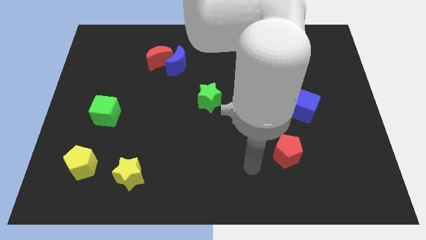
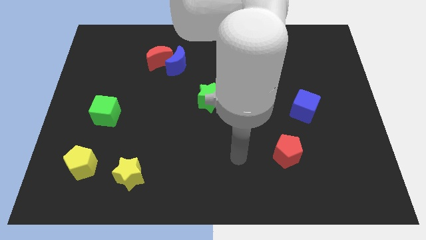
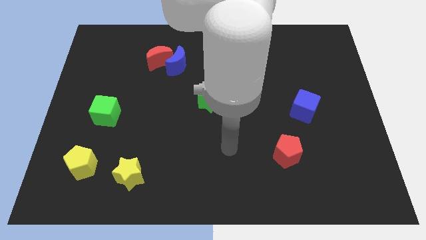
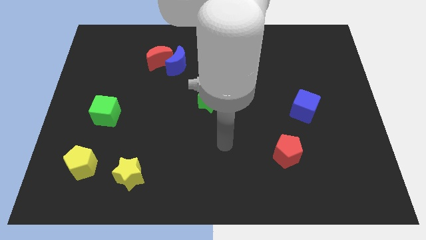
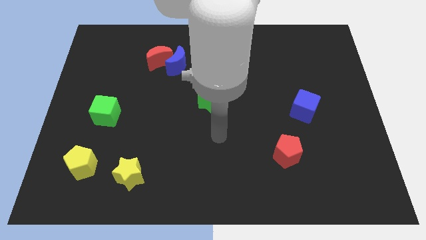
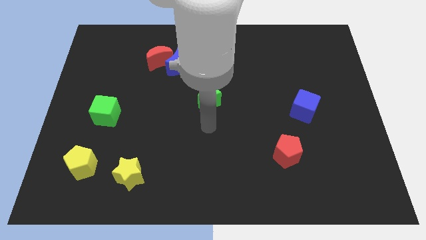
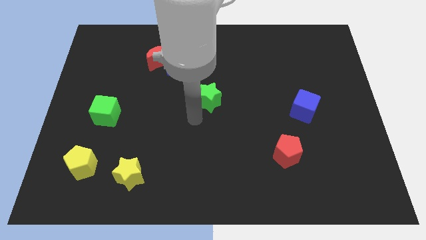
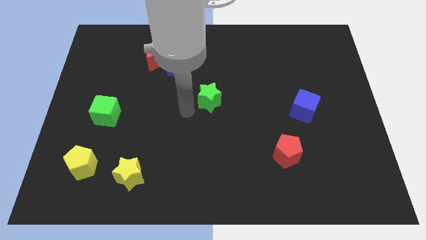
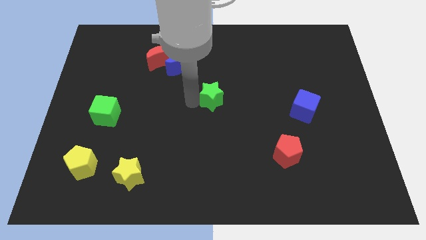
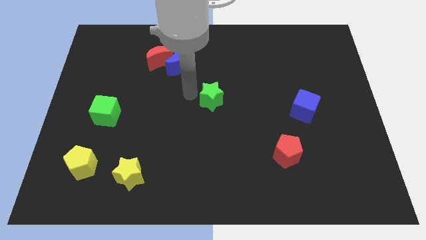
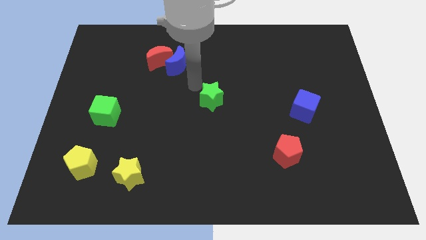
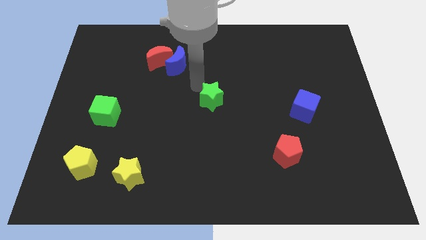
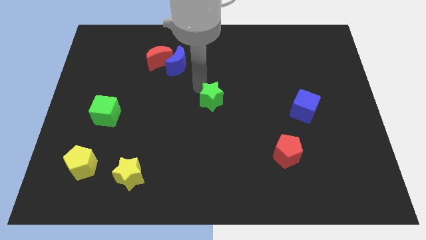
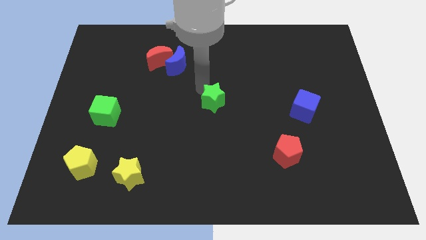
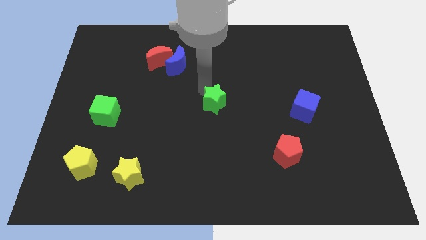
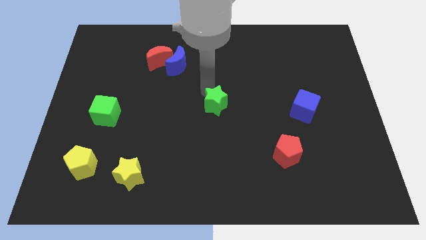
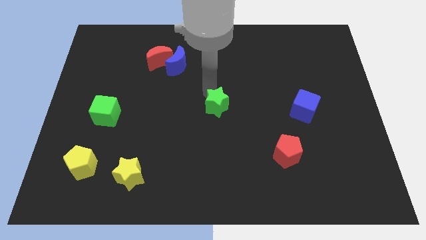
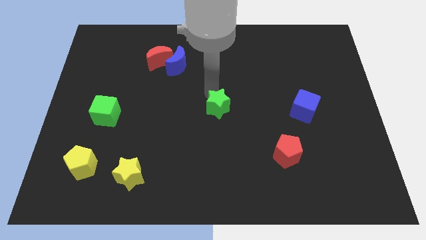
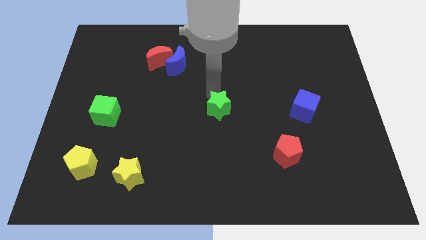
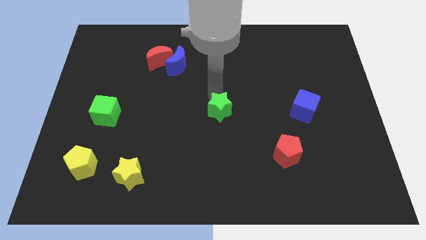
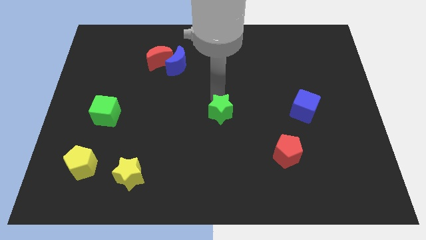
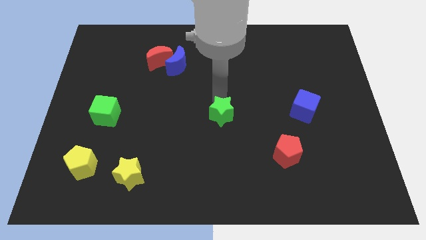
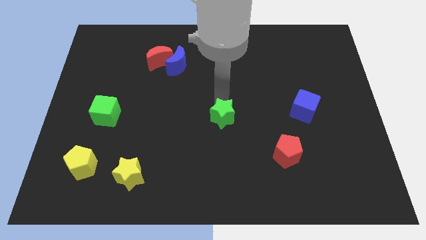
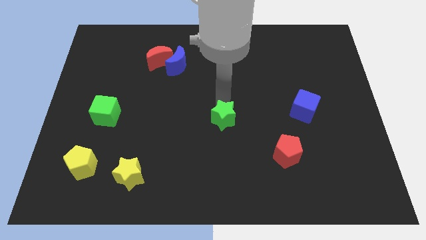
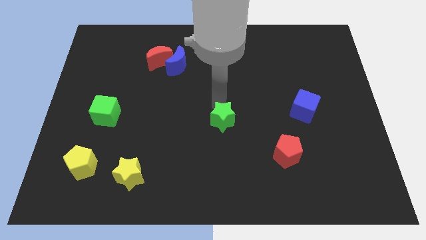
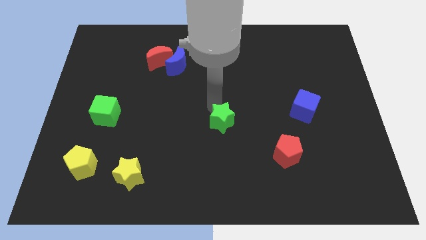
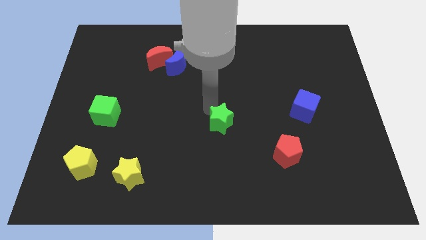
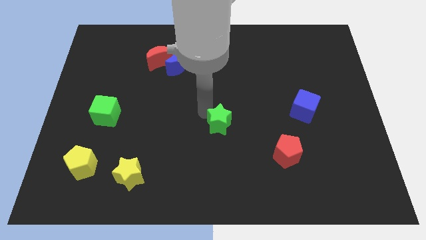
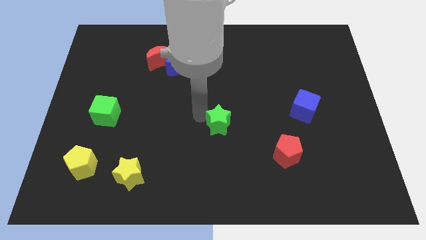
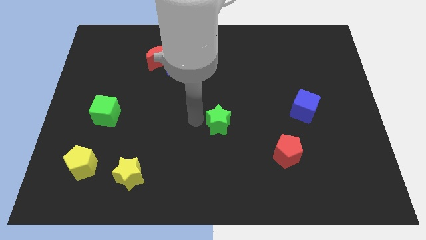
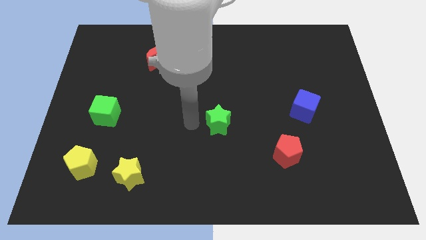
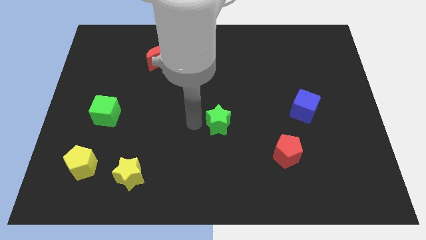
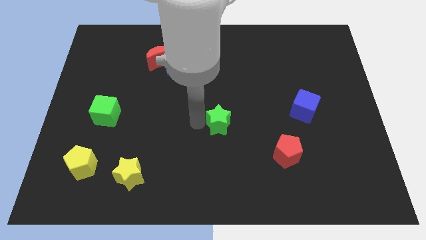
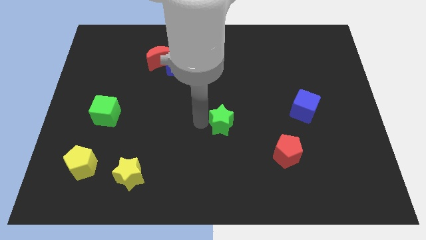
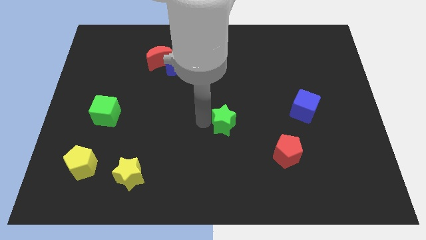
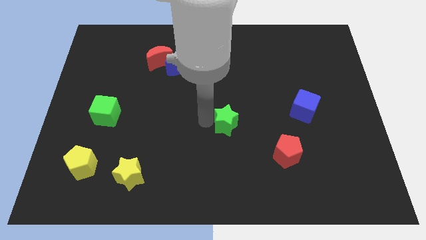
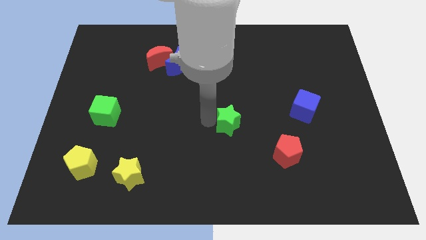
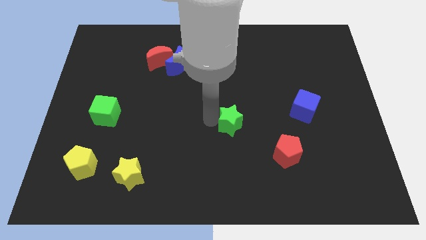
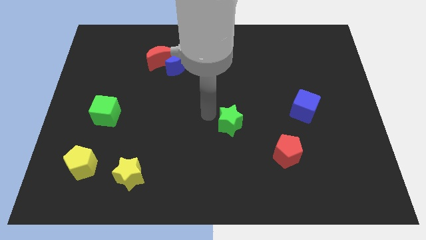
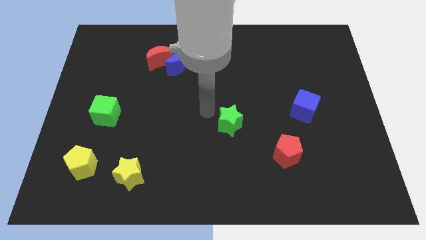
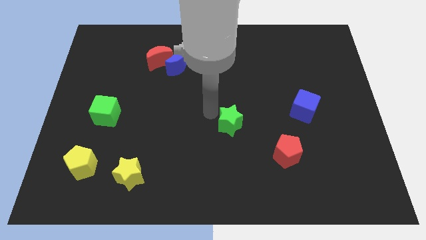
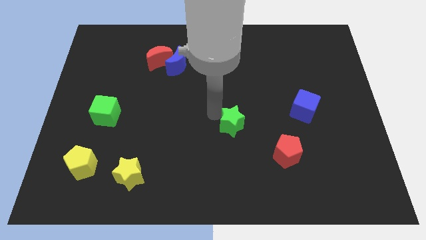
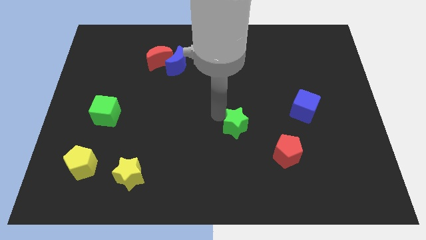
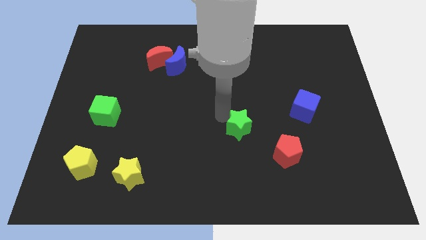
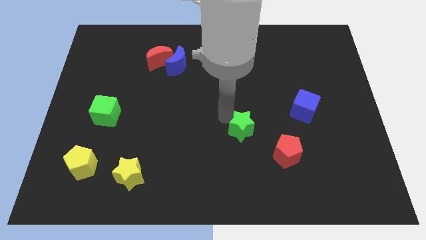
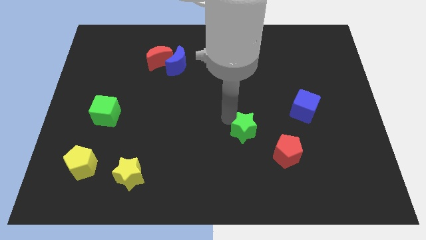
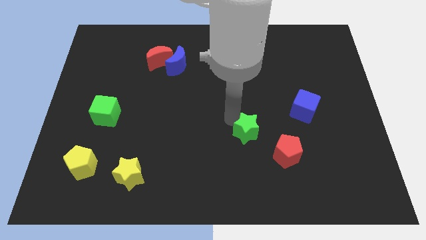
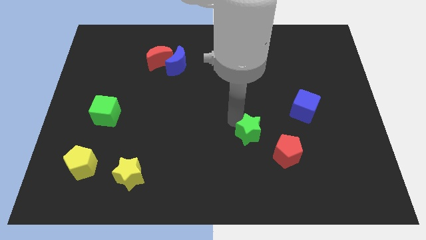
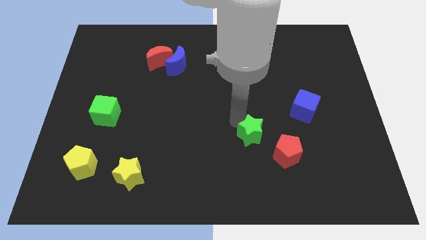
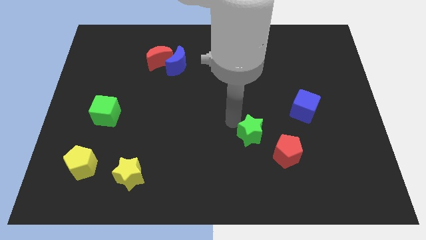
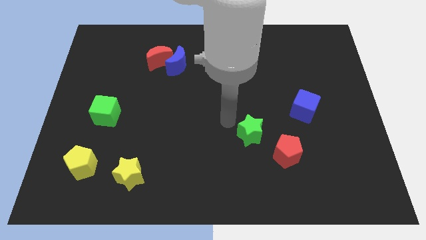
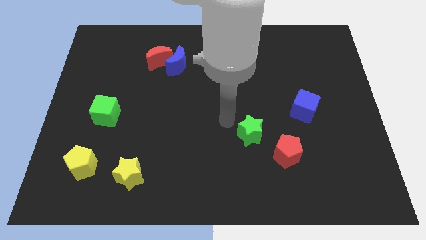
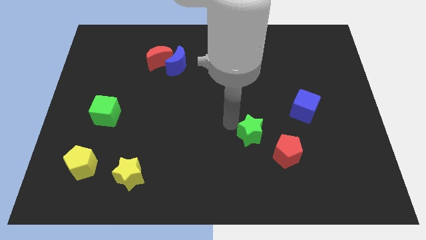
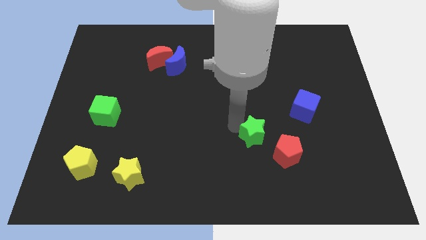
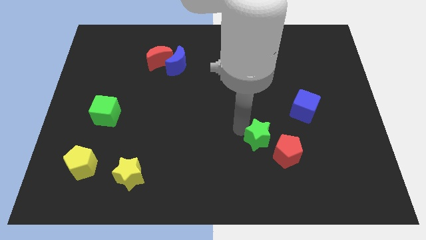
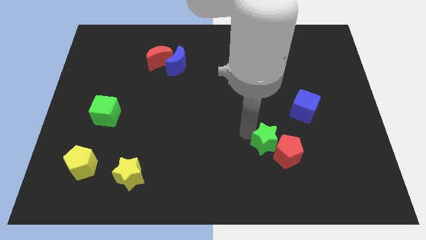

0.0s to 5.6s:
put the green star next to the red pentagon

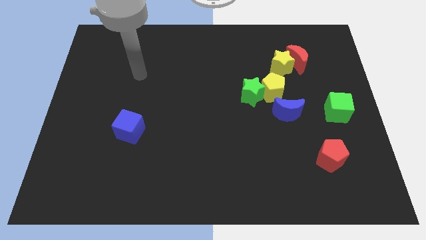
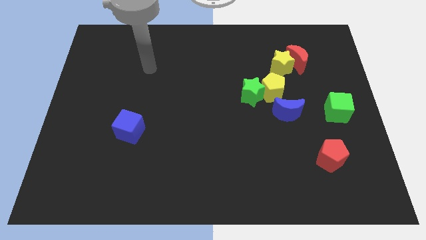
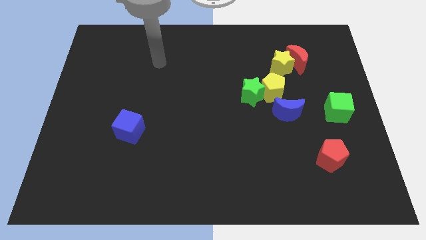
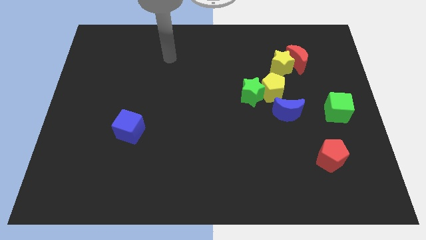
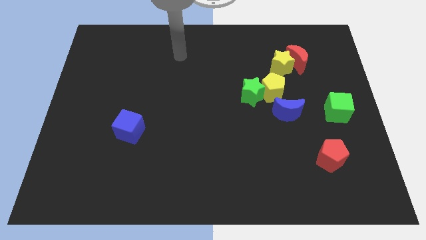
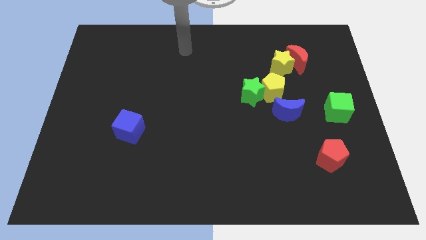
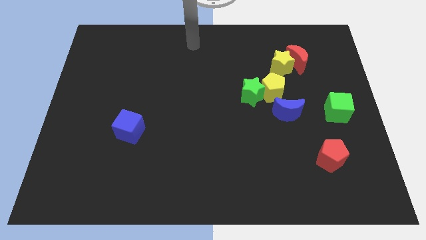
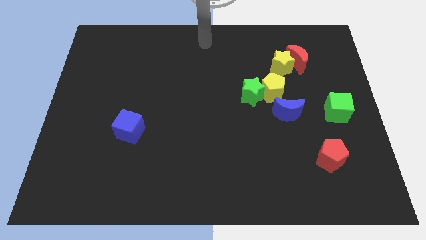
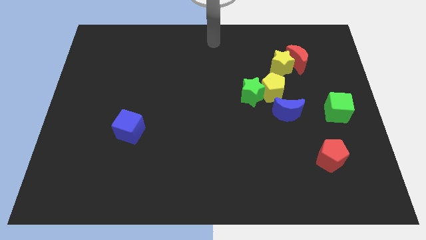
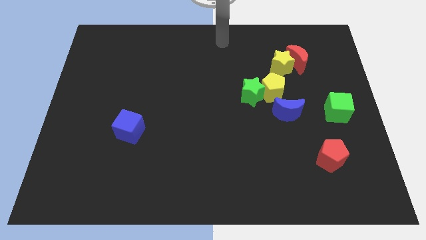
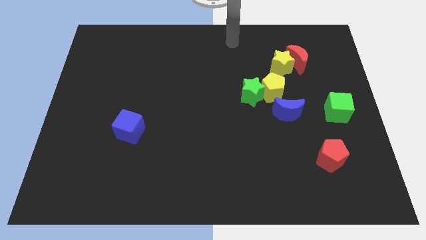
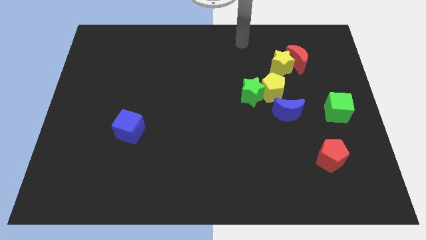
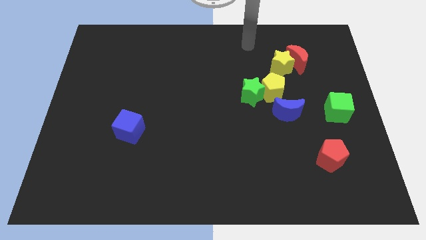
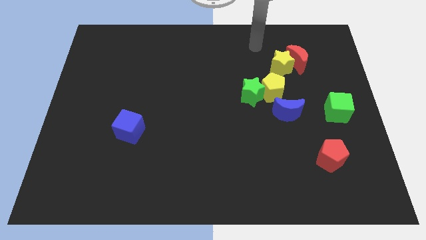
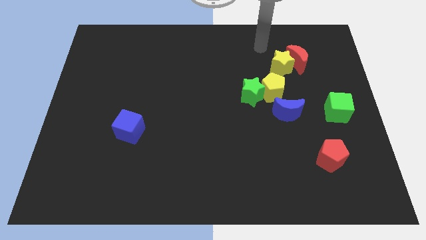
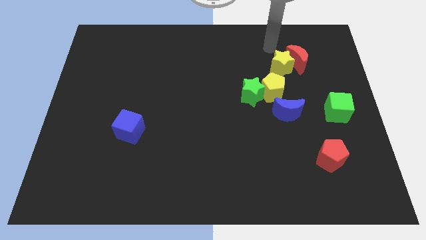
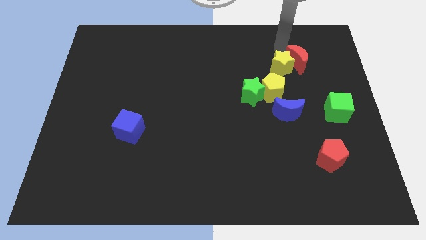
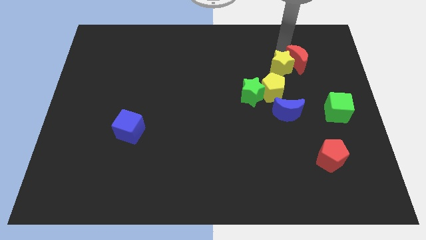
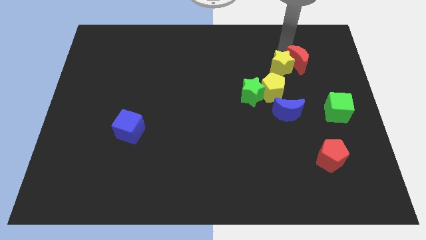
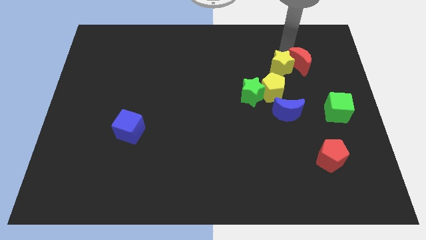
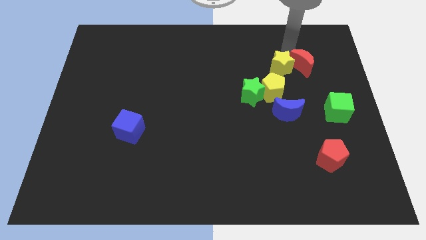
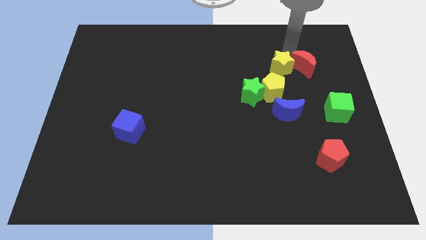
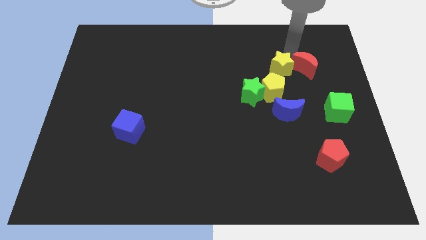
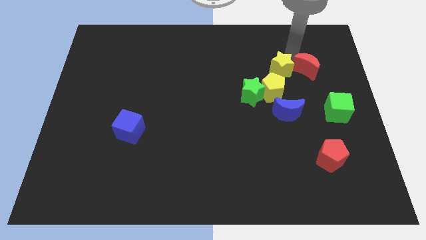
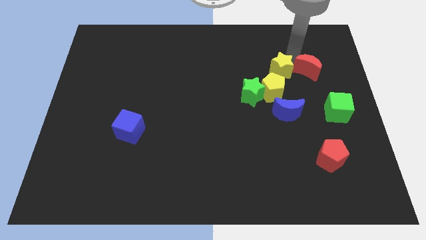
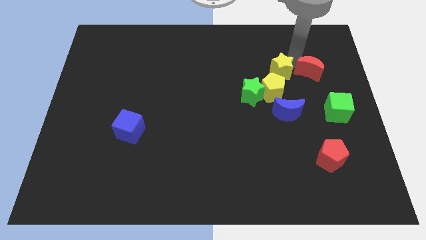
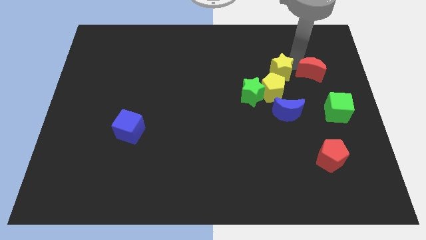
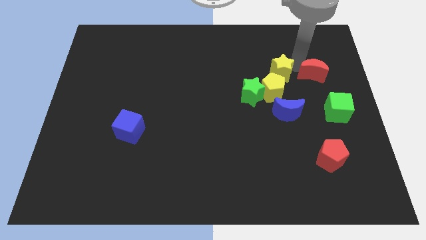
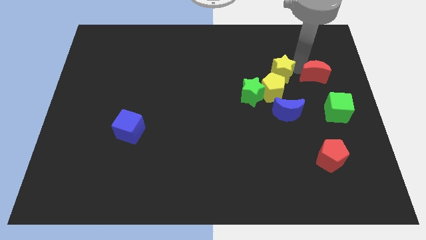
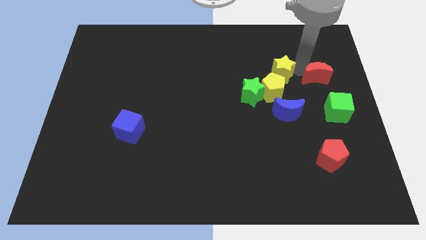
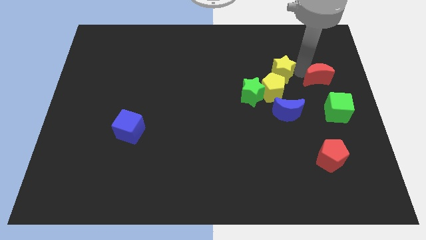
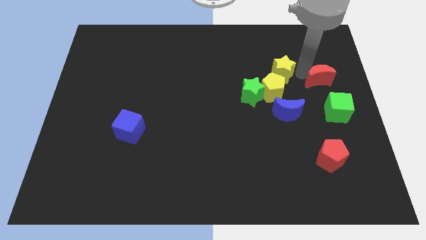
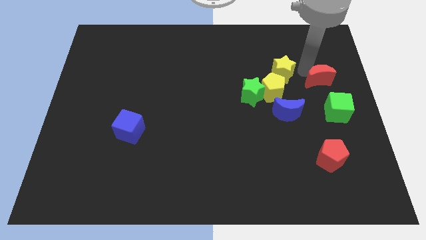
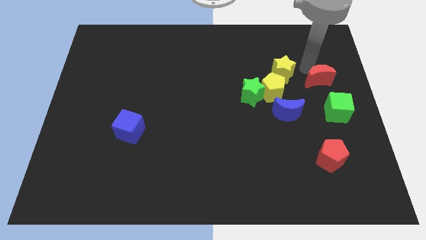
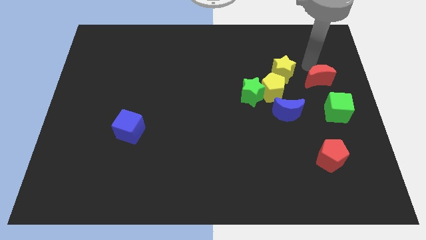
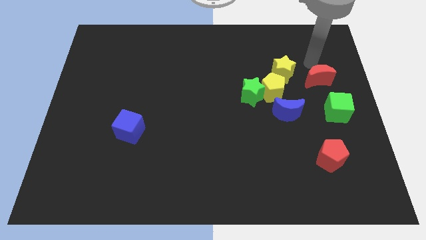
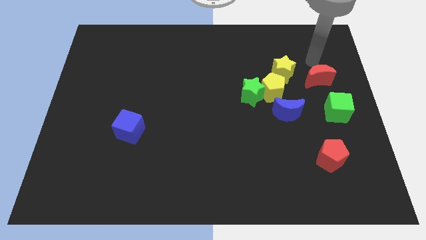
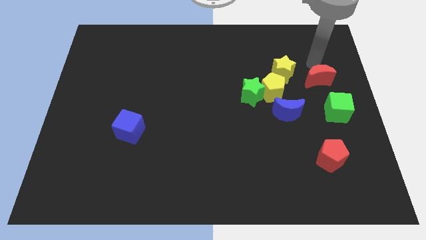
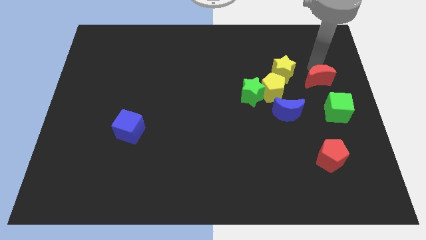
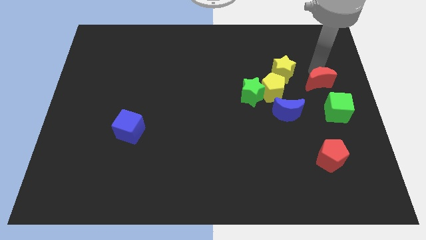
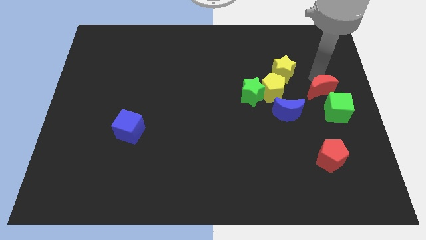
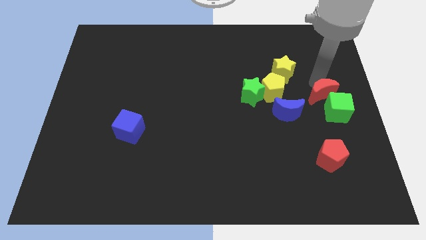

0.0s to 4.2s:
move the red moon to the green cube
